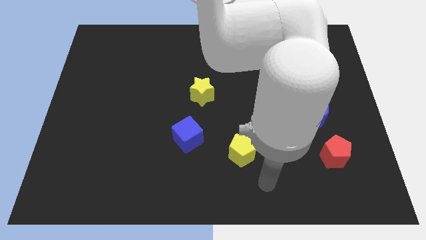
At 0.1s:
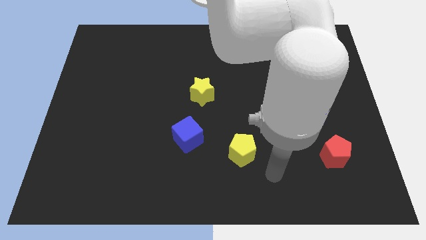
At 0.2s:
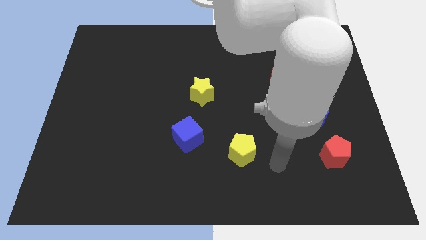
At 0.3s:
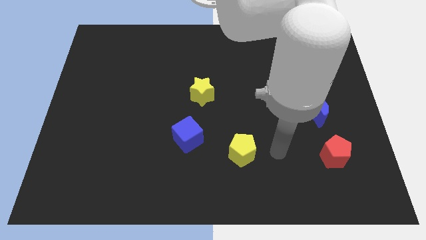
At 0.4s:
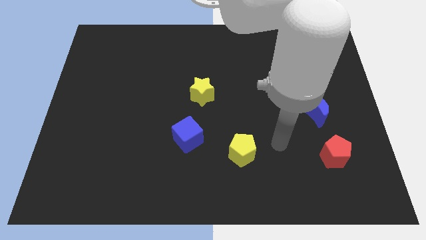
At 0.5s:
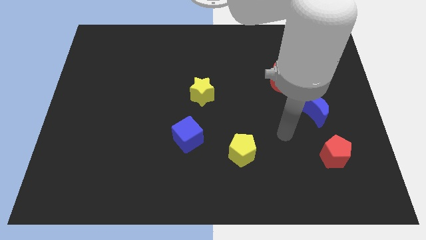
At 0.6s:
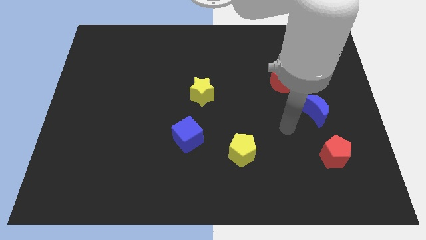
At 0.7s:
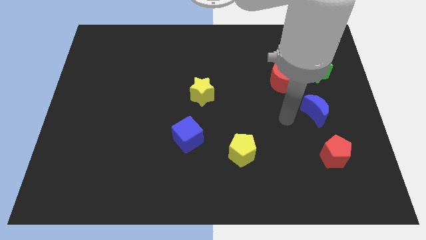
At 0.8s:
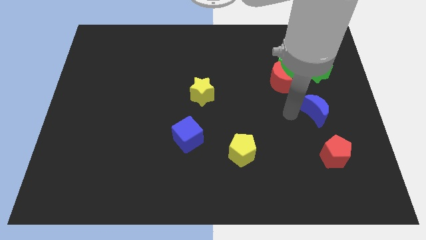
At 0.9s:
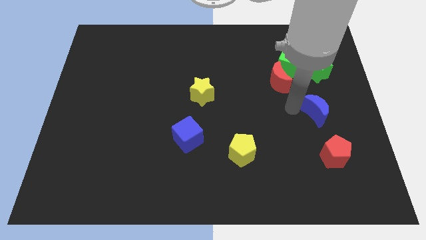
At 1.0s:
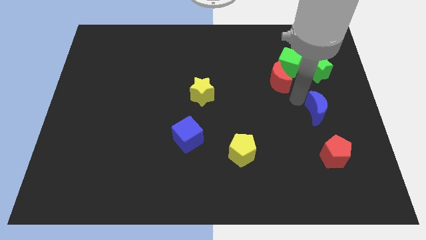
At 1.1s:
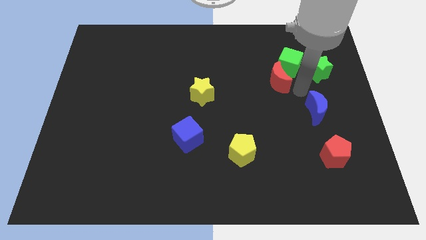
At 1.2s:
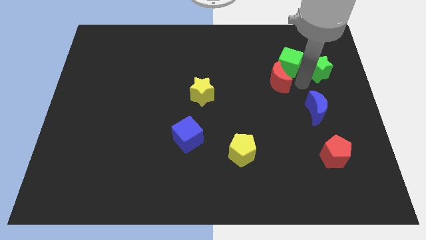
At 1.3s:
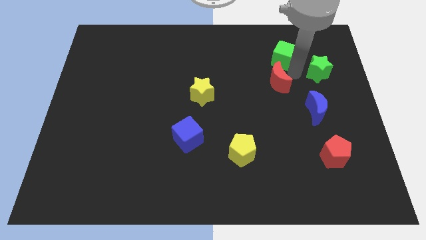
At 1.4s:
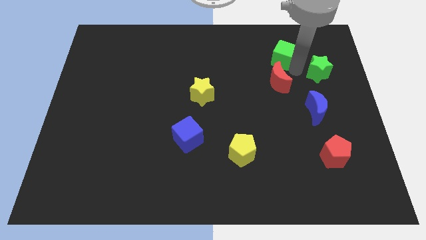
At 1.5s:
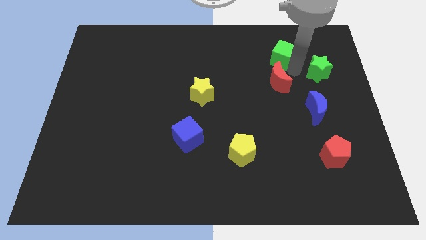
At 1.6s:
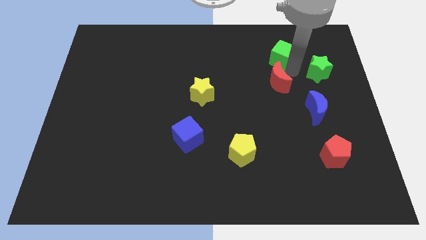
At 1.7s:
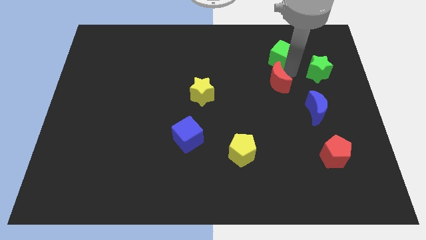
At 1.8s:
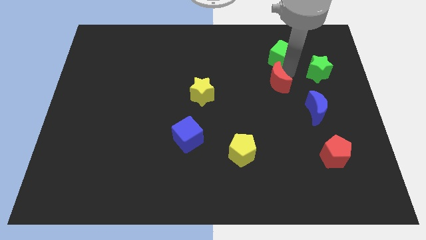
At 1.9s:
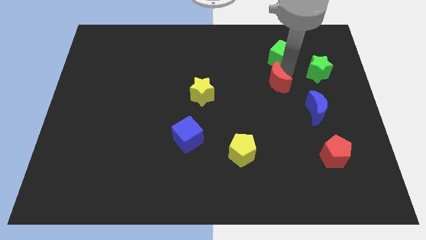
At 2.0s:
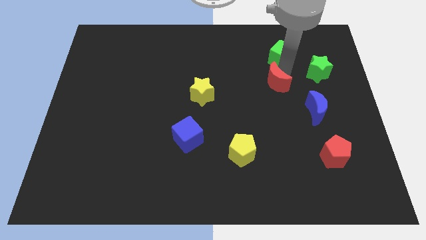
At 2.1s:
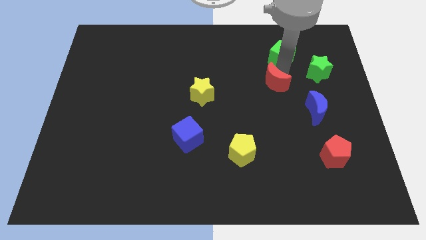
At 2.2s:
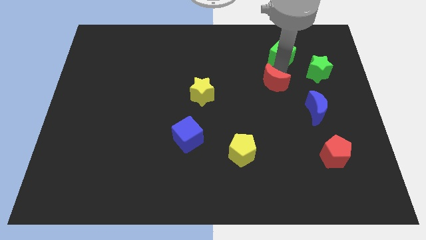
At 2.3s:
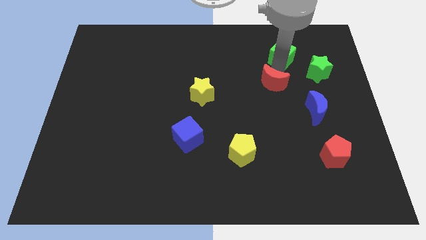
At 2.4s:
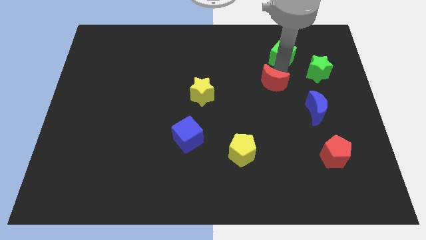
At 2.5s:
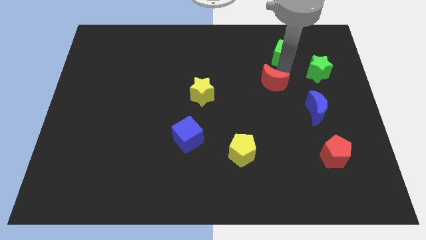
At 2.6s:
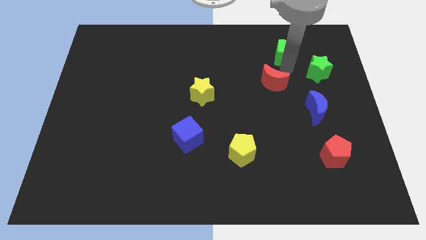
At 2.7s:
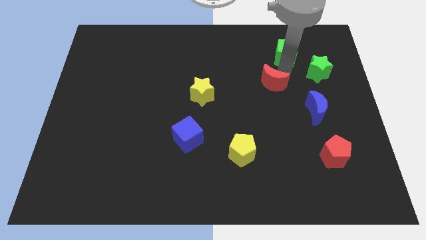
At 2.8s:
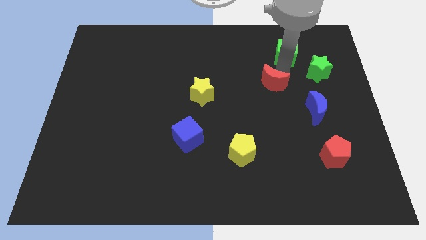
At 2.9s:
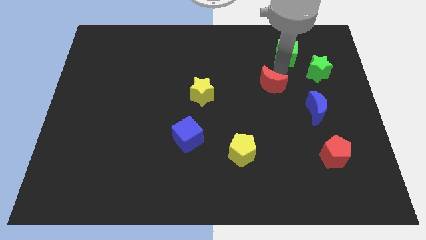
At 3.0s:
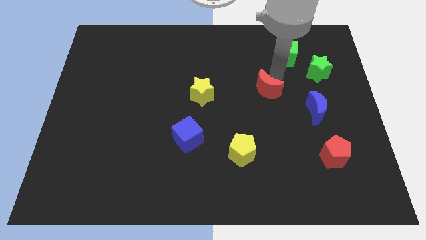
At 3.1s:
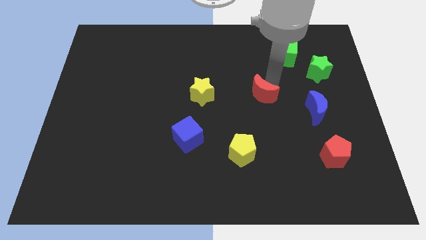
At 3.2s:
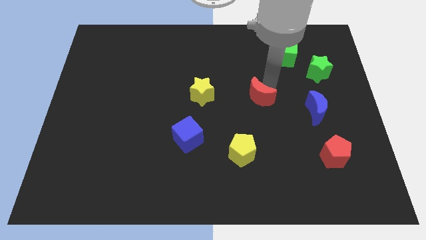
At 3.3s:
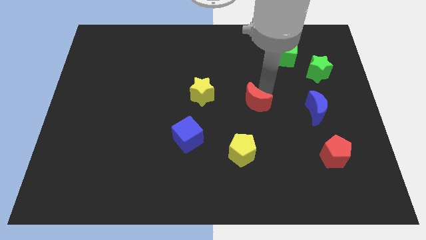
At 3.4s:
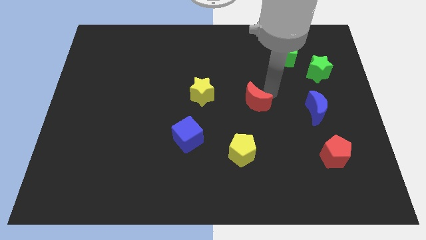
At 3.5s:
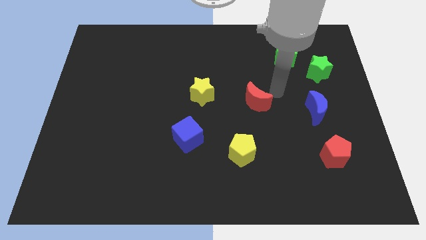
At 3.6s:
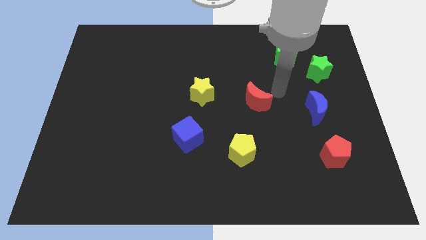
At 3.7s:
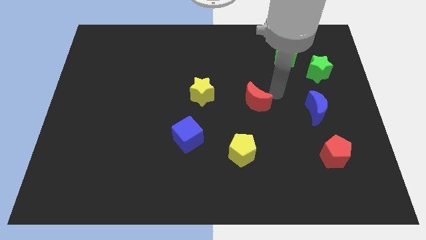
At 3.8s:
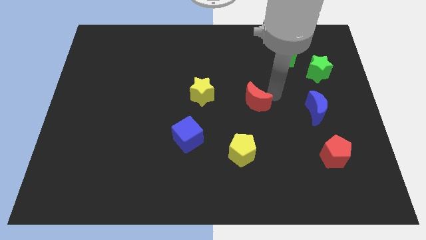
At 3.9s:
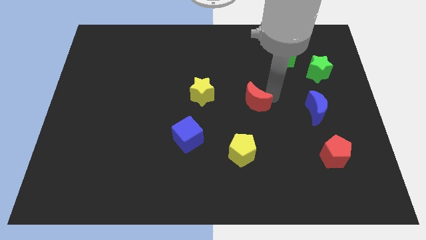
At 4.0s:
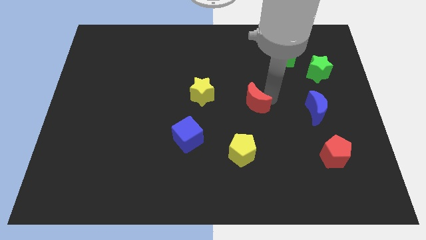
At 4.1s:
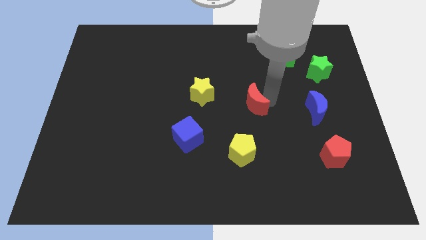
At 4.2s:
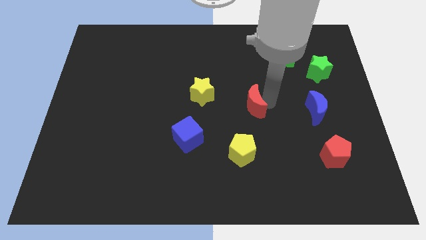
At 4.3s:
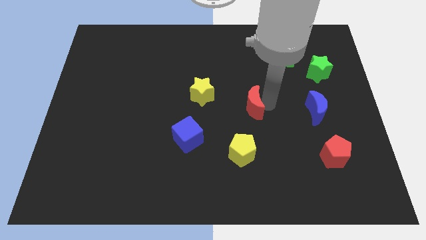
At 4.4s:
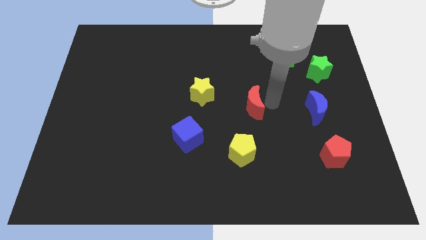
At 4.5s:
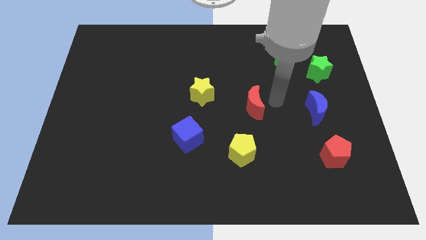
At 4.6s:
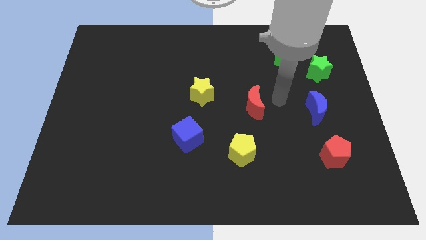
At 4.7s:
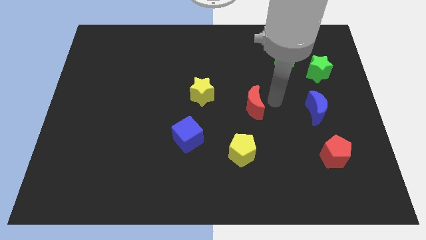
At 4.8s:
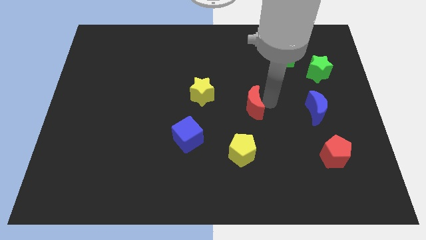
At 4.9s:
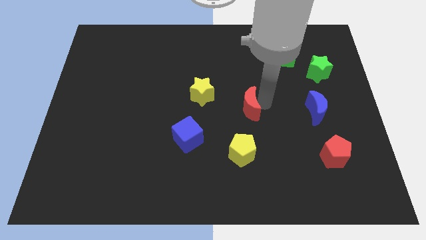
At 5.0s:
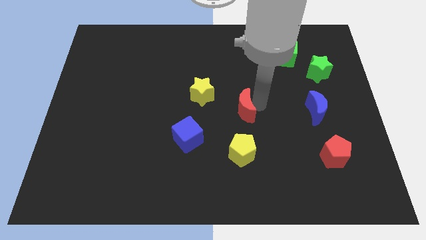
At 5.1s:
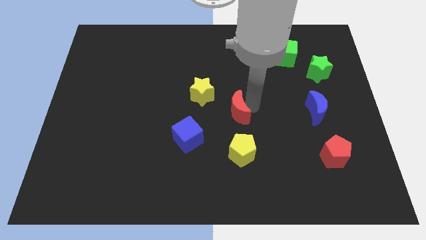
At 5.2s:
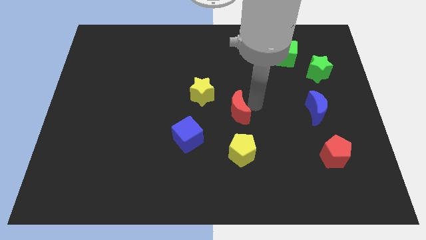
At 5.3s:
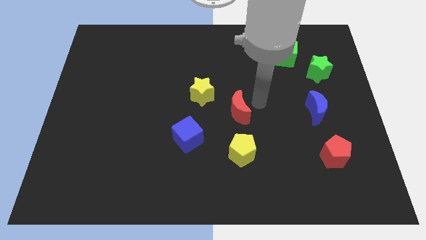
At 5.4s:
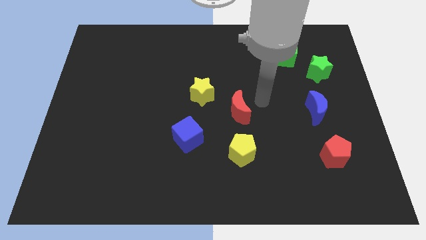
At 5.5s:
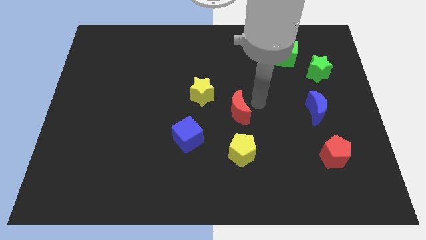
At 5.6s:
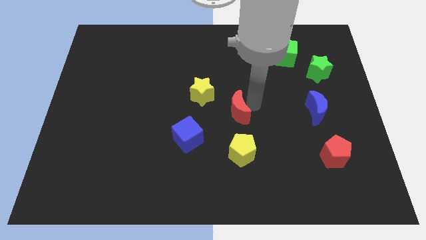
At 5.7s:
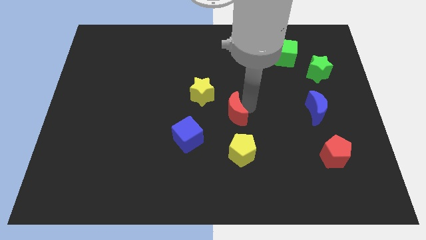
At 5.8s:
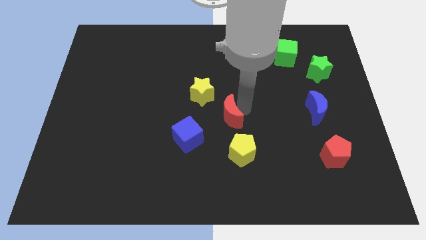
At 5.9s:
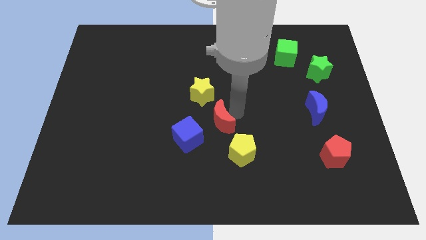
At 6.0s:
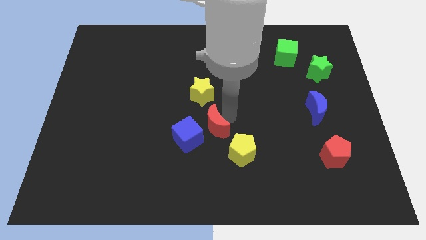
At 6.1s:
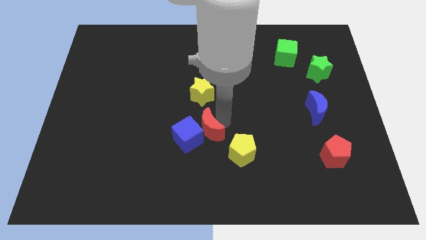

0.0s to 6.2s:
slide the red moon towards the blue cube

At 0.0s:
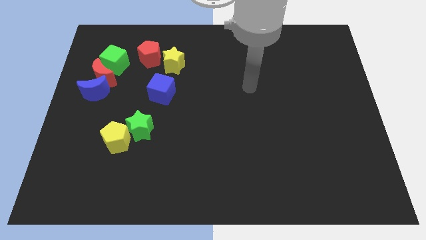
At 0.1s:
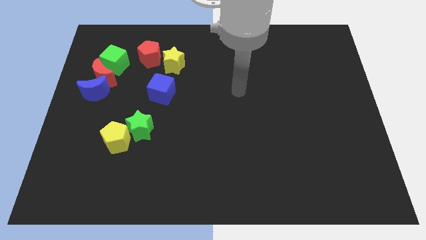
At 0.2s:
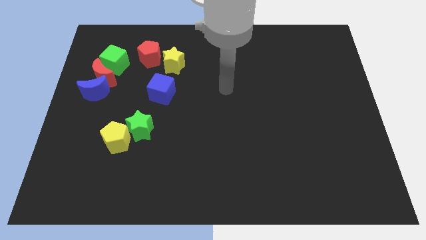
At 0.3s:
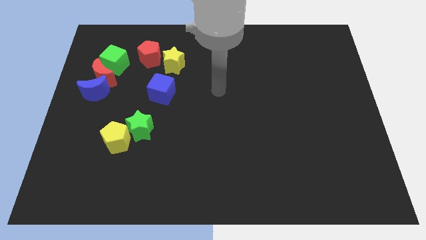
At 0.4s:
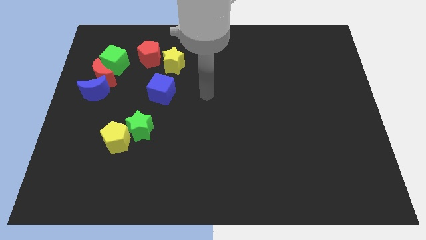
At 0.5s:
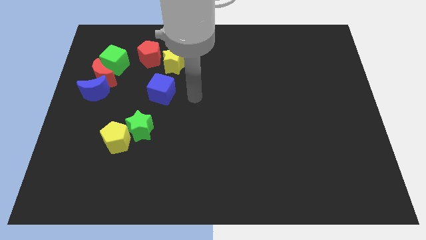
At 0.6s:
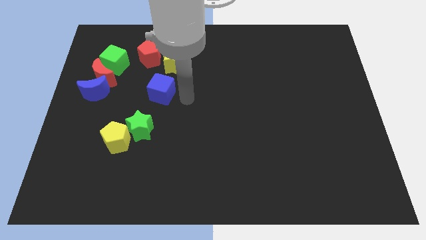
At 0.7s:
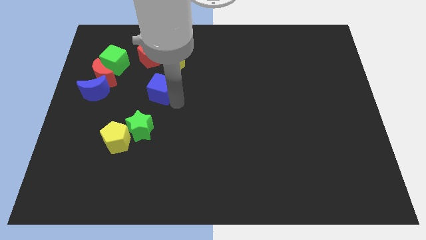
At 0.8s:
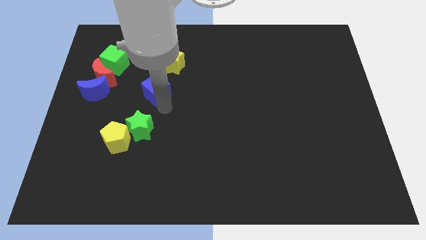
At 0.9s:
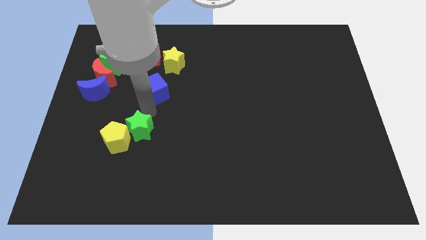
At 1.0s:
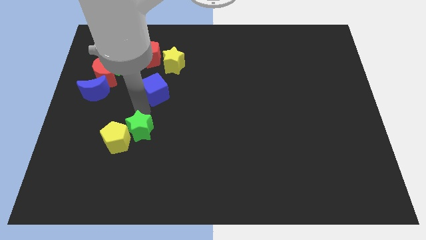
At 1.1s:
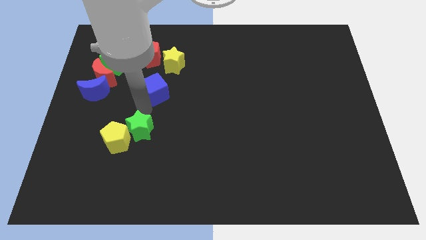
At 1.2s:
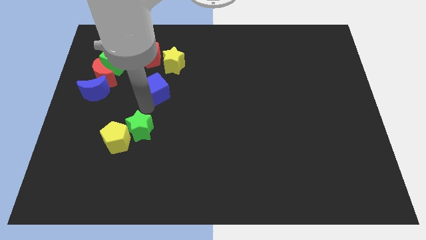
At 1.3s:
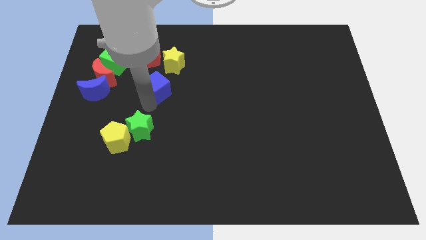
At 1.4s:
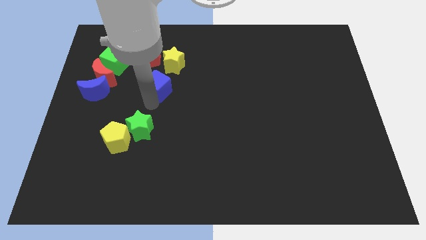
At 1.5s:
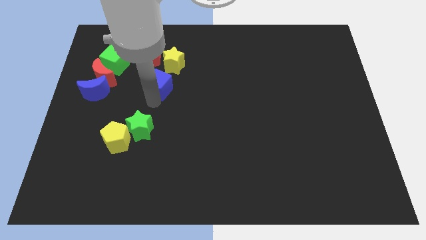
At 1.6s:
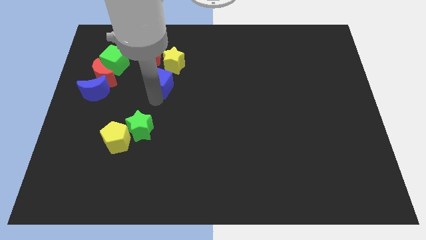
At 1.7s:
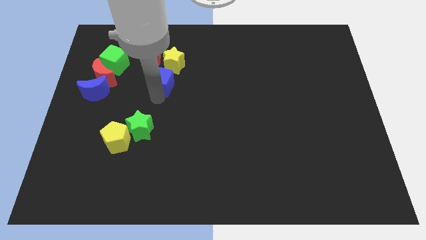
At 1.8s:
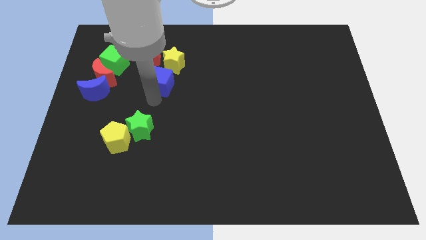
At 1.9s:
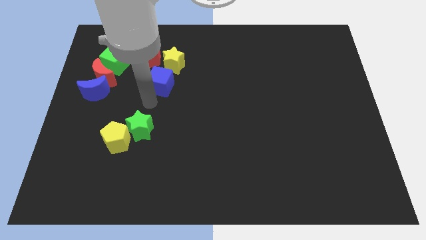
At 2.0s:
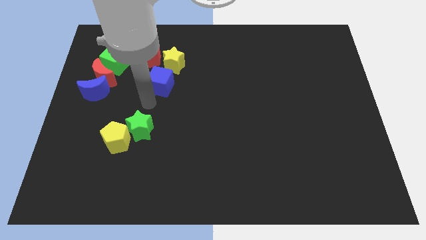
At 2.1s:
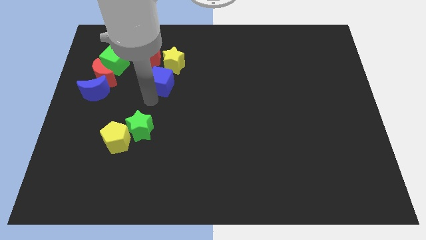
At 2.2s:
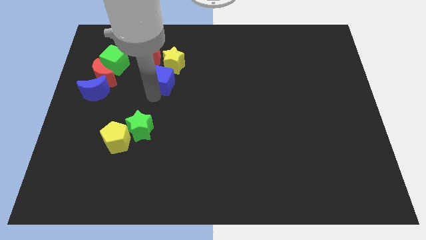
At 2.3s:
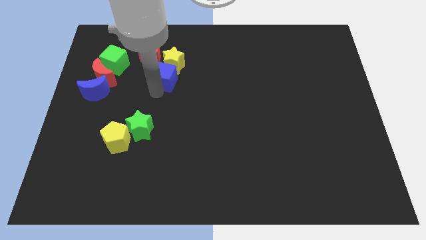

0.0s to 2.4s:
slide the blue cube towards the yellow star
